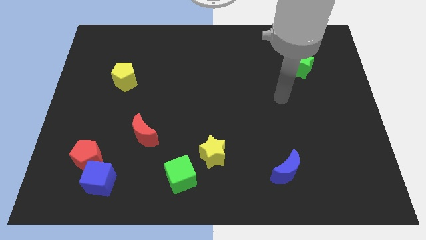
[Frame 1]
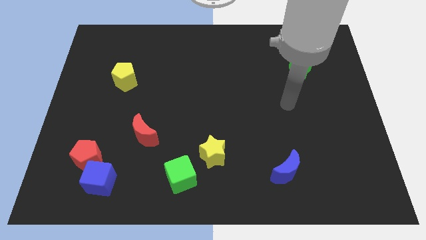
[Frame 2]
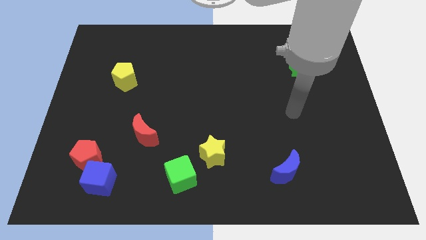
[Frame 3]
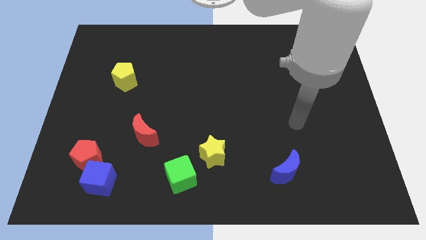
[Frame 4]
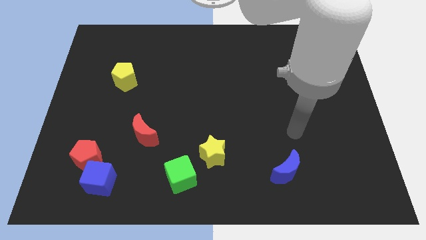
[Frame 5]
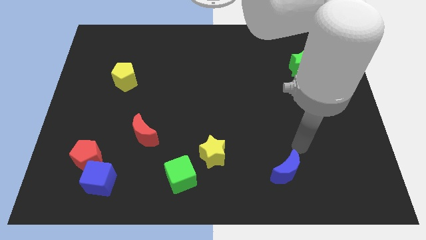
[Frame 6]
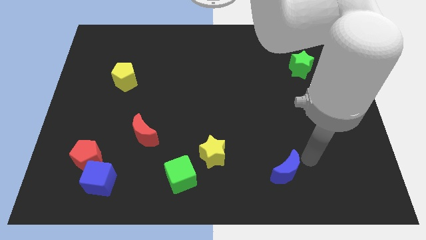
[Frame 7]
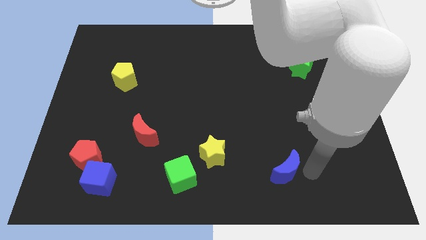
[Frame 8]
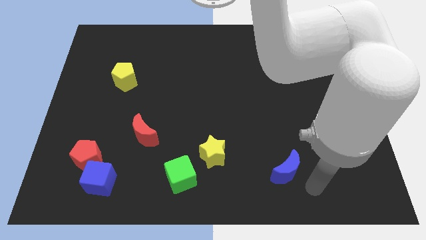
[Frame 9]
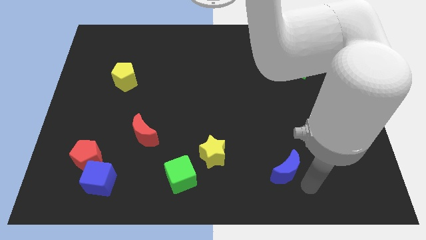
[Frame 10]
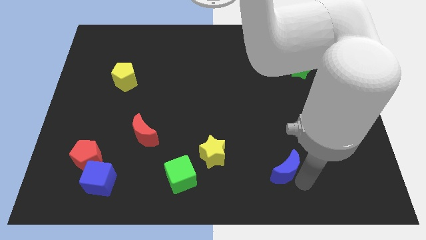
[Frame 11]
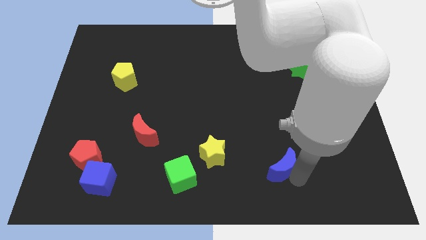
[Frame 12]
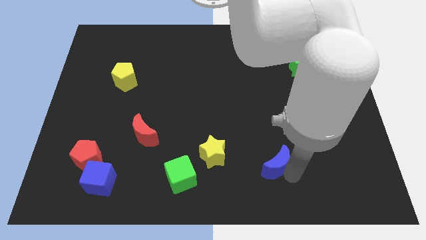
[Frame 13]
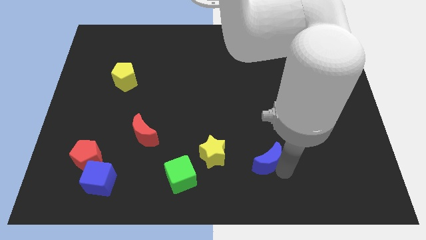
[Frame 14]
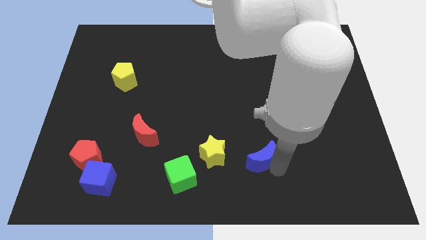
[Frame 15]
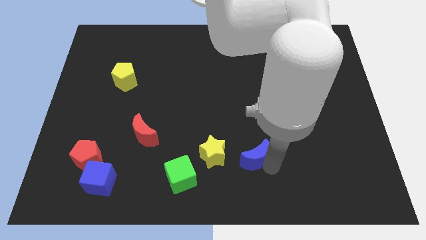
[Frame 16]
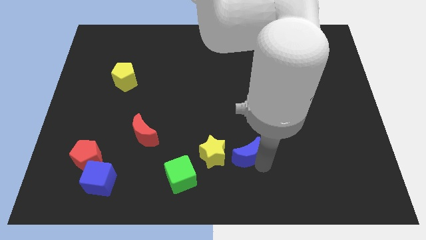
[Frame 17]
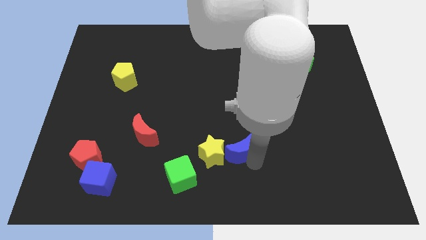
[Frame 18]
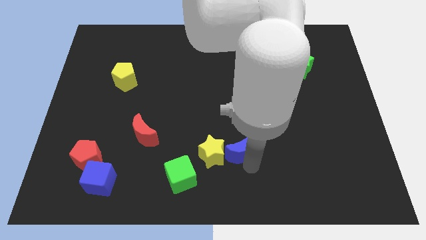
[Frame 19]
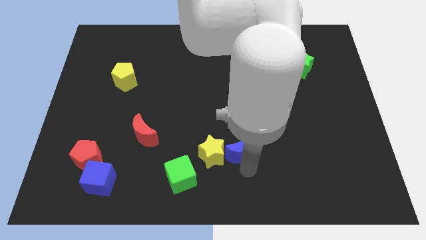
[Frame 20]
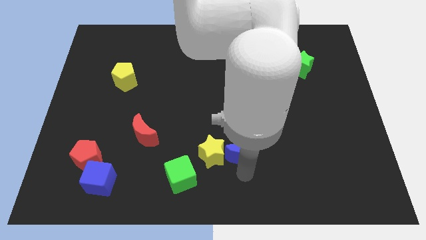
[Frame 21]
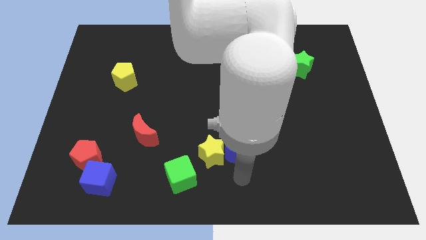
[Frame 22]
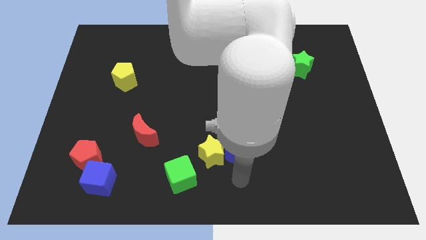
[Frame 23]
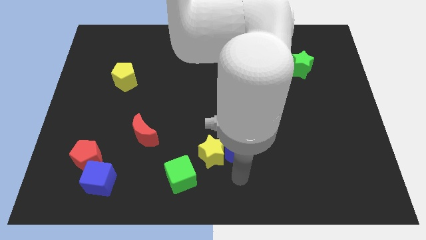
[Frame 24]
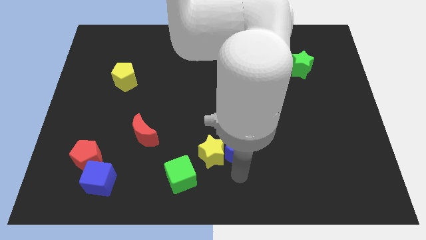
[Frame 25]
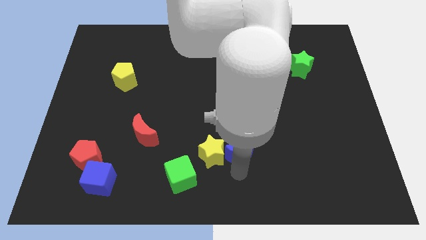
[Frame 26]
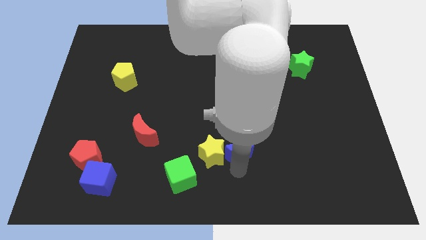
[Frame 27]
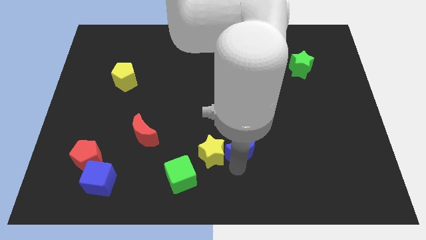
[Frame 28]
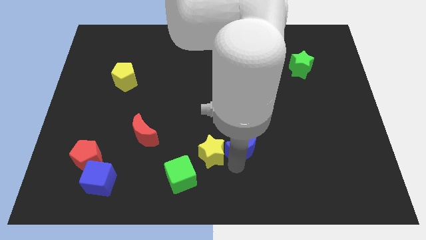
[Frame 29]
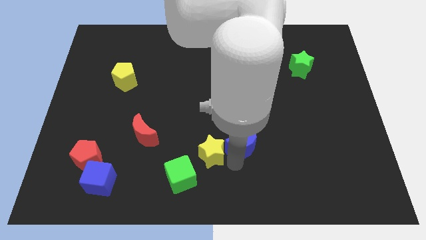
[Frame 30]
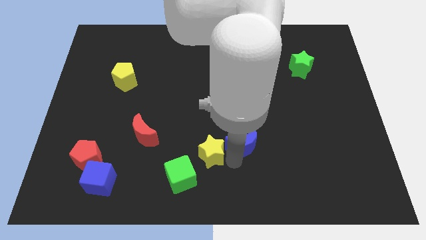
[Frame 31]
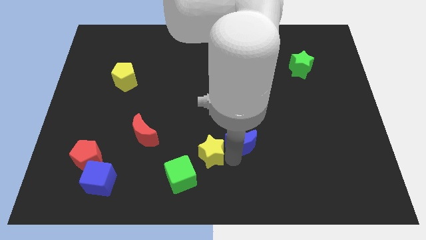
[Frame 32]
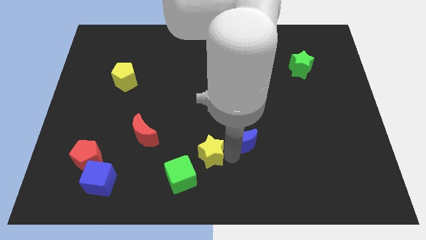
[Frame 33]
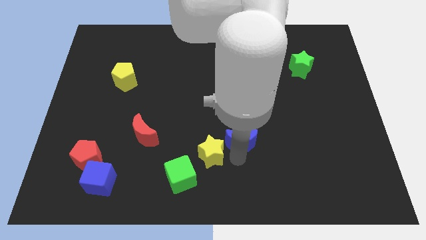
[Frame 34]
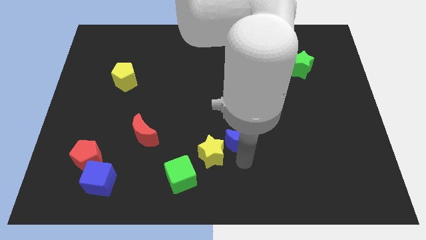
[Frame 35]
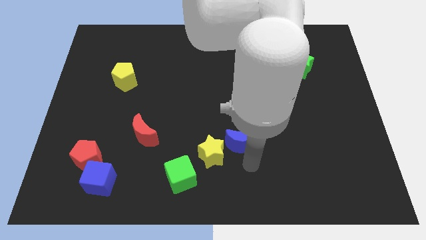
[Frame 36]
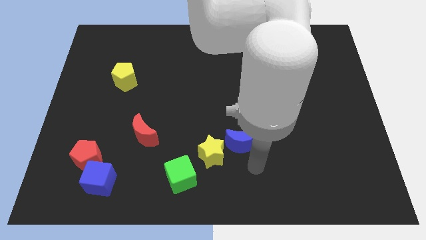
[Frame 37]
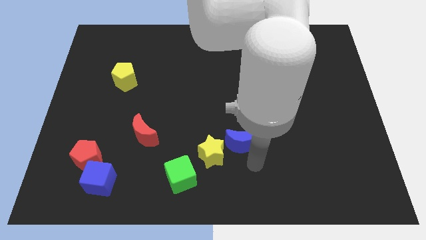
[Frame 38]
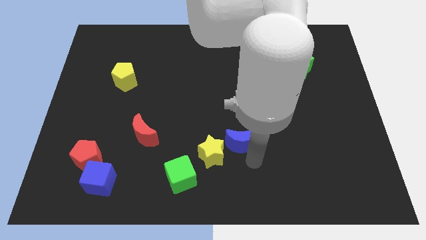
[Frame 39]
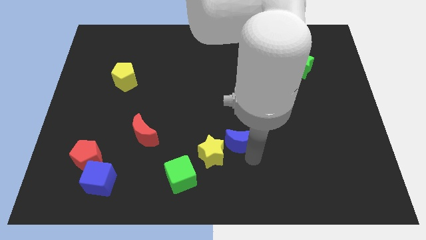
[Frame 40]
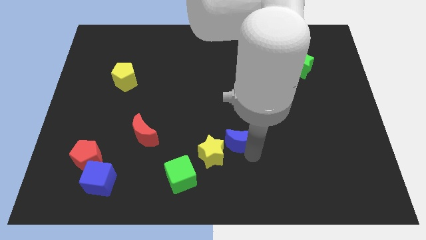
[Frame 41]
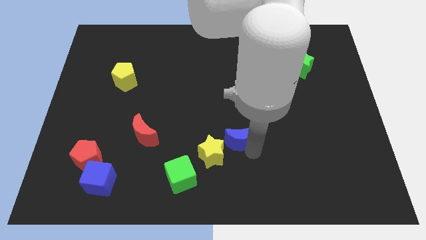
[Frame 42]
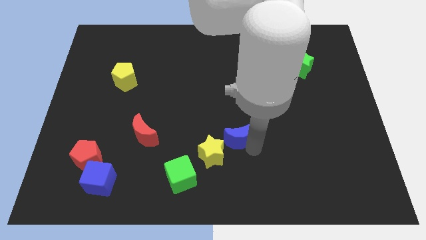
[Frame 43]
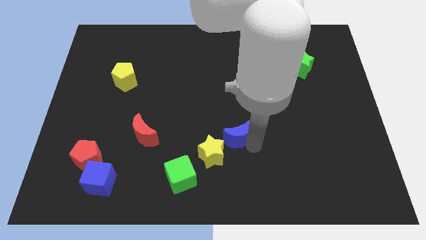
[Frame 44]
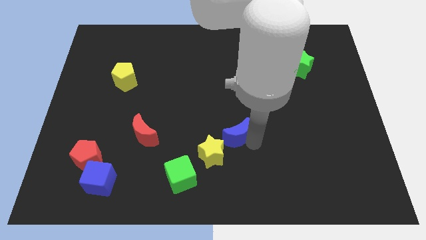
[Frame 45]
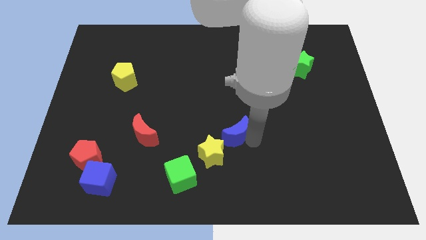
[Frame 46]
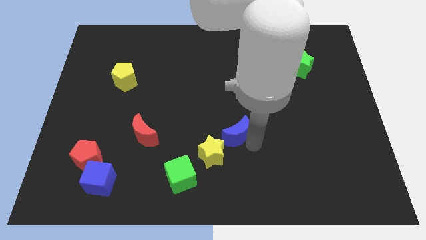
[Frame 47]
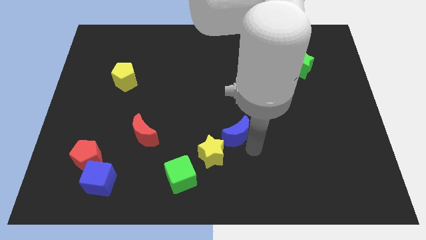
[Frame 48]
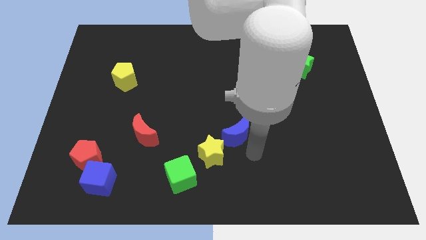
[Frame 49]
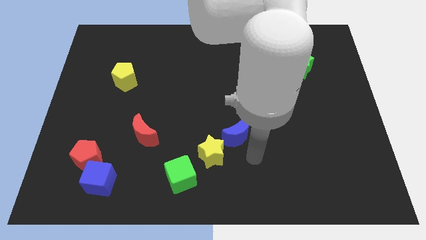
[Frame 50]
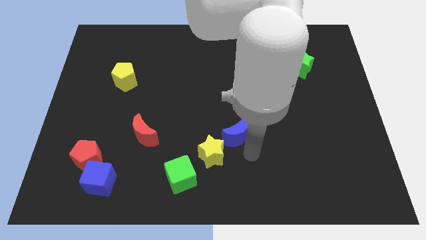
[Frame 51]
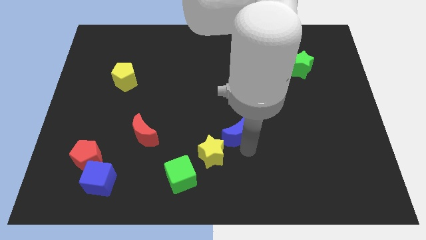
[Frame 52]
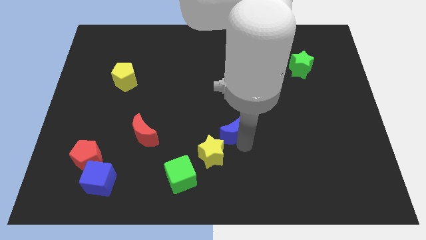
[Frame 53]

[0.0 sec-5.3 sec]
put the blue moon to the top side of the yellow star

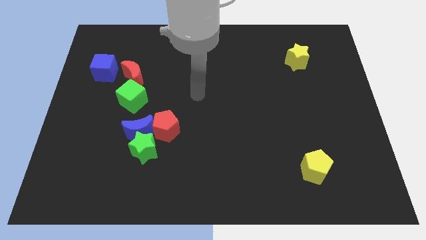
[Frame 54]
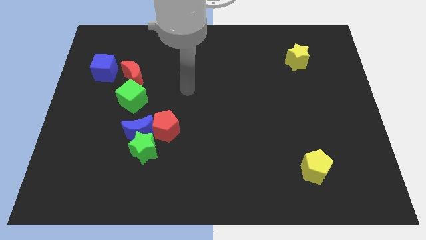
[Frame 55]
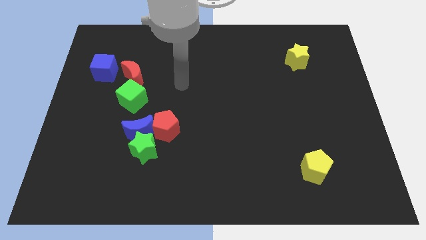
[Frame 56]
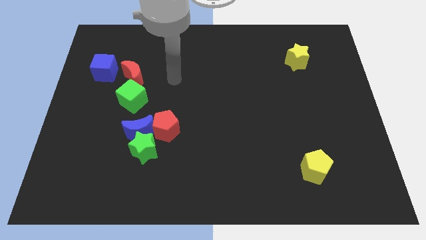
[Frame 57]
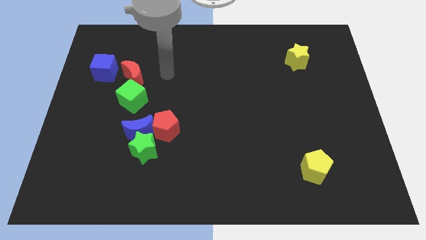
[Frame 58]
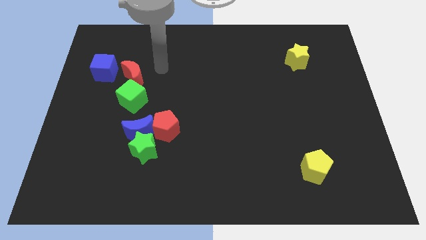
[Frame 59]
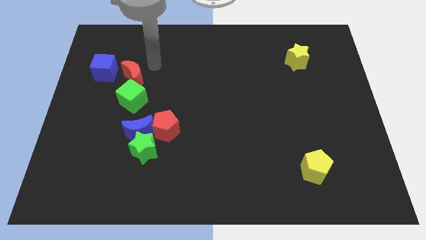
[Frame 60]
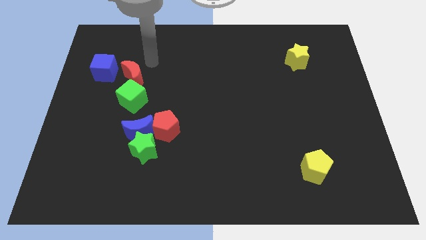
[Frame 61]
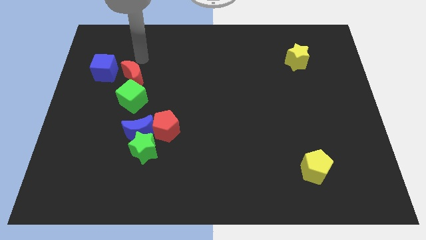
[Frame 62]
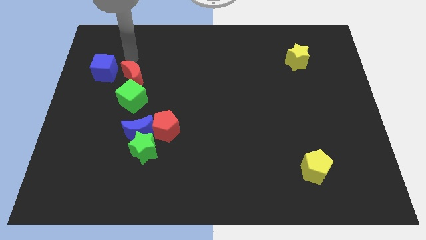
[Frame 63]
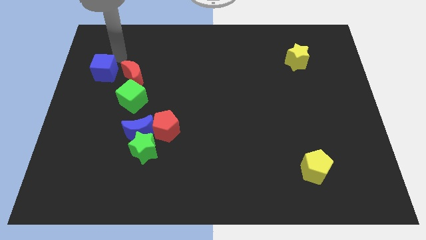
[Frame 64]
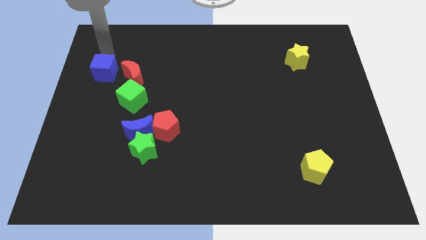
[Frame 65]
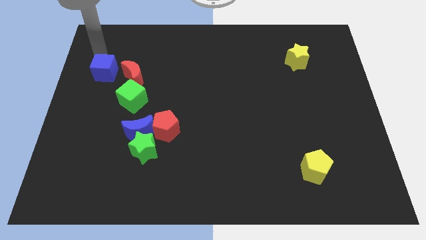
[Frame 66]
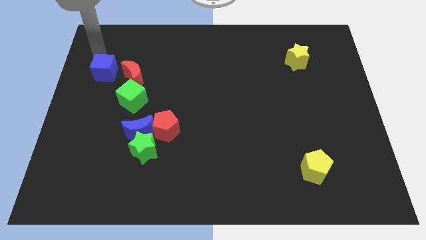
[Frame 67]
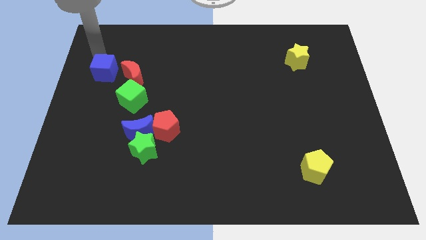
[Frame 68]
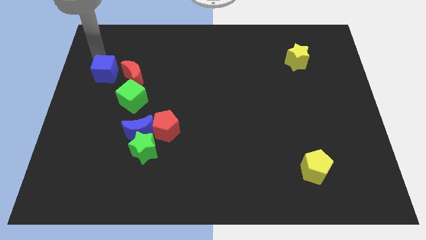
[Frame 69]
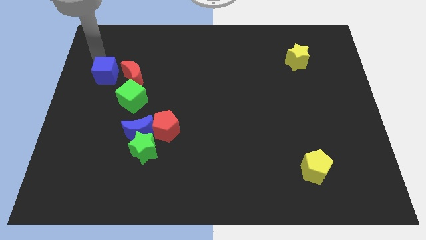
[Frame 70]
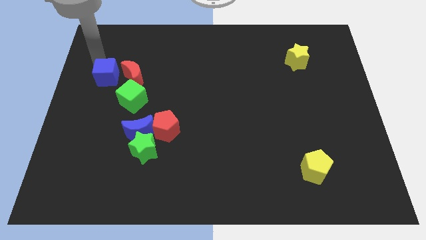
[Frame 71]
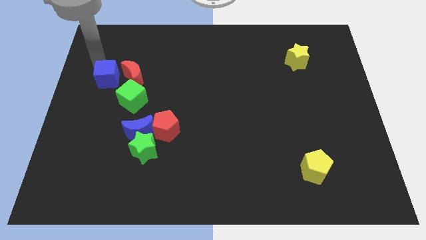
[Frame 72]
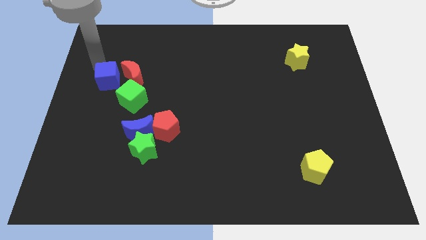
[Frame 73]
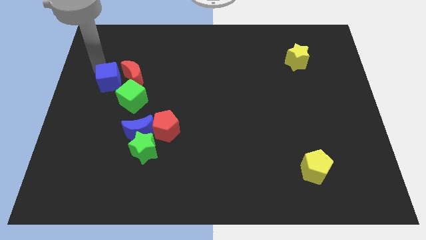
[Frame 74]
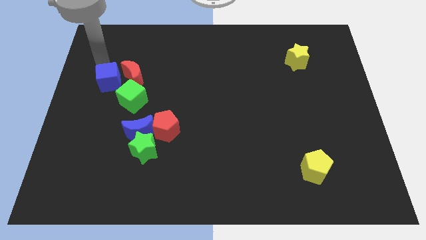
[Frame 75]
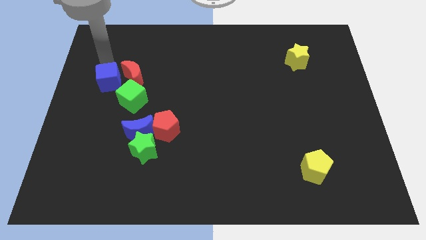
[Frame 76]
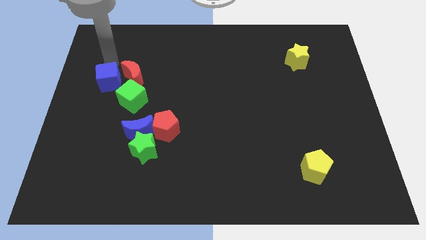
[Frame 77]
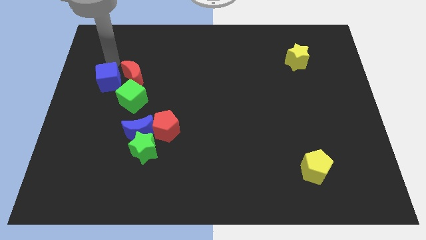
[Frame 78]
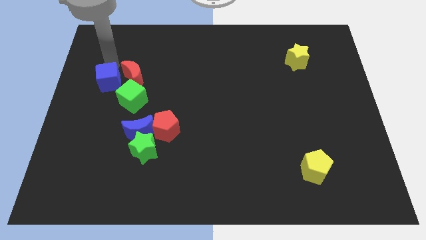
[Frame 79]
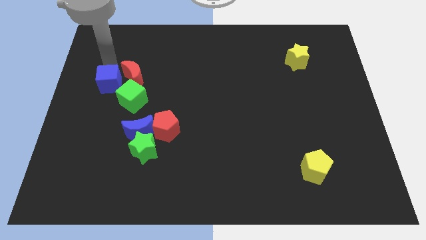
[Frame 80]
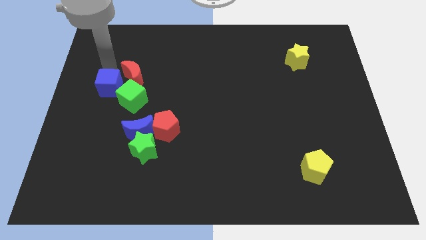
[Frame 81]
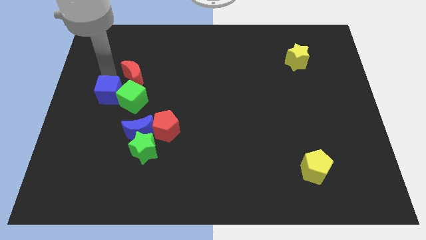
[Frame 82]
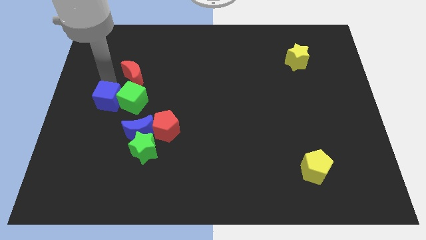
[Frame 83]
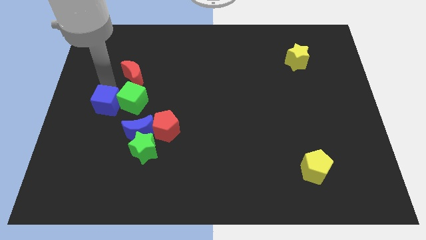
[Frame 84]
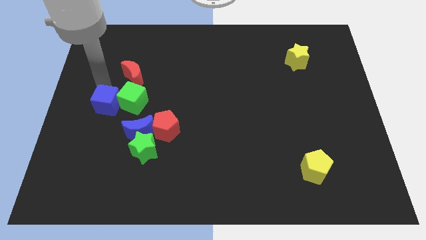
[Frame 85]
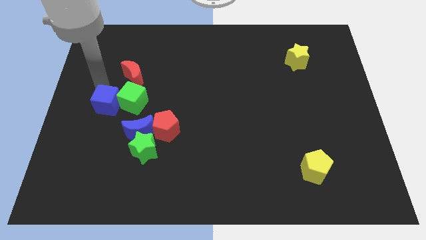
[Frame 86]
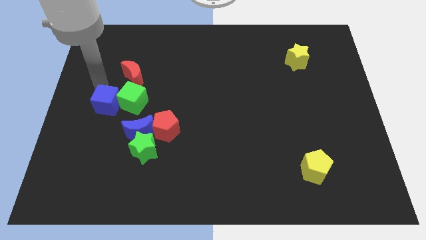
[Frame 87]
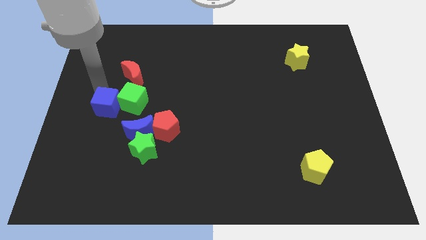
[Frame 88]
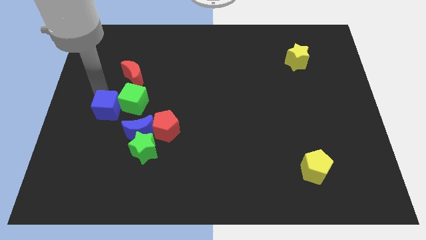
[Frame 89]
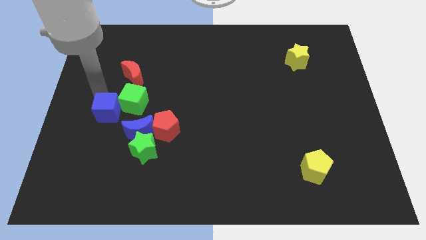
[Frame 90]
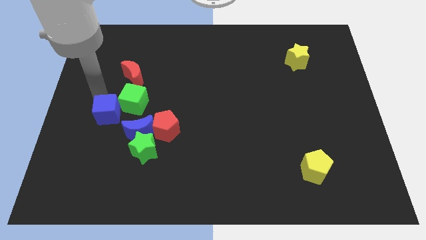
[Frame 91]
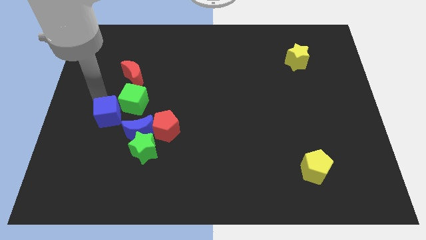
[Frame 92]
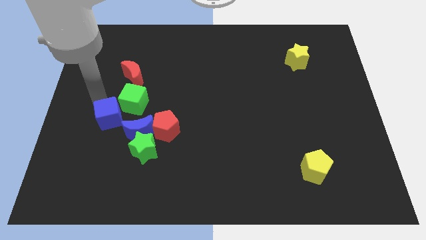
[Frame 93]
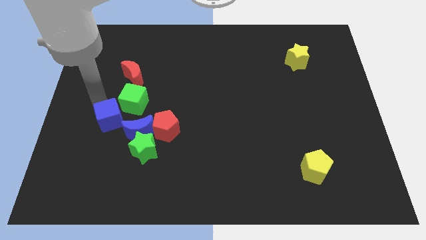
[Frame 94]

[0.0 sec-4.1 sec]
put the blue cube below the green cube
